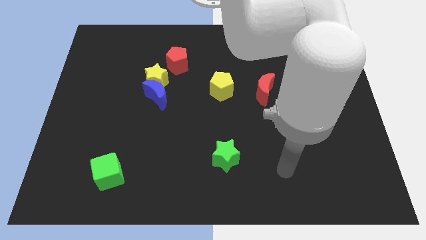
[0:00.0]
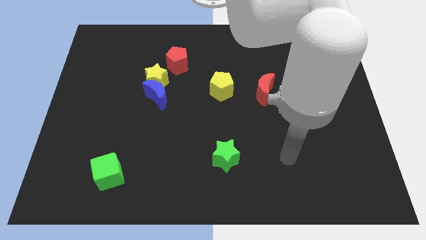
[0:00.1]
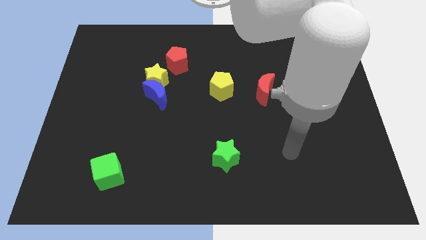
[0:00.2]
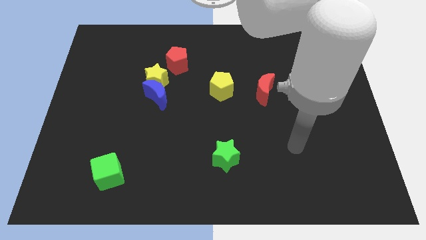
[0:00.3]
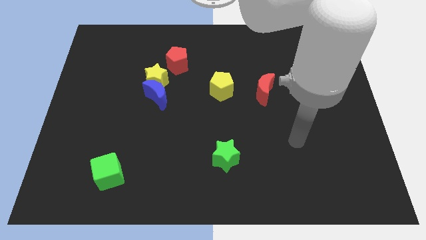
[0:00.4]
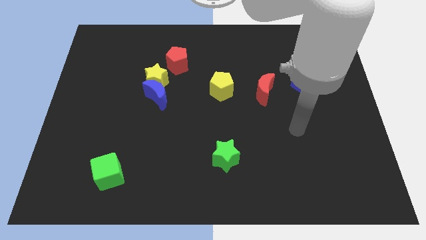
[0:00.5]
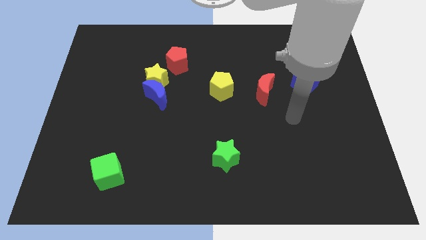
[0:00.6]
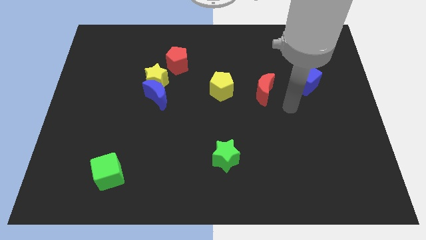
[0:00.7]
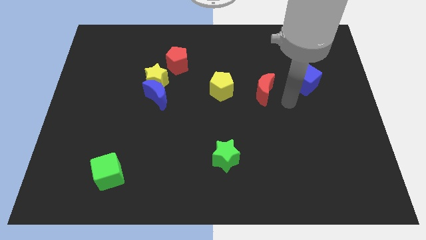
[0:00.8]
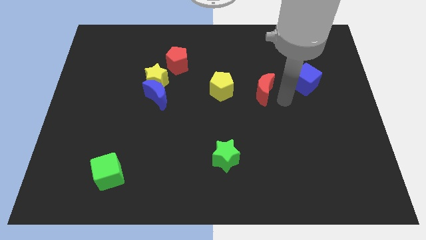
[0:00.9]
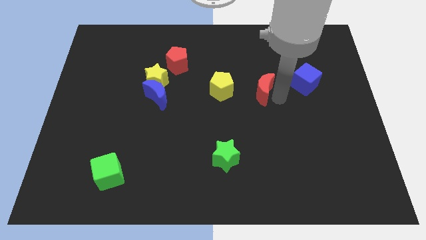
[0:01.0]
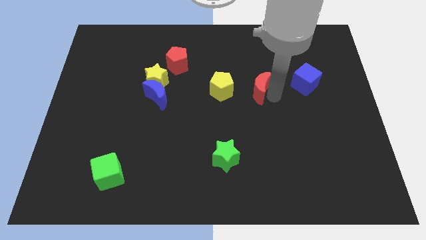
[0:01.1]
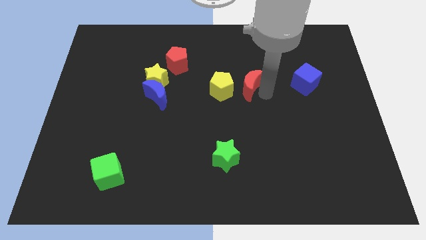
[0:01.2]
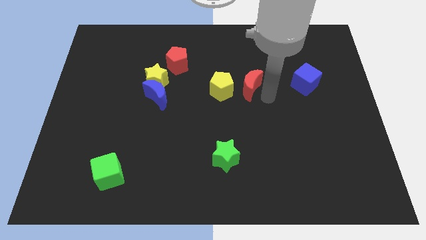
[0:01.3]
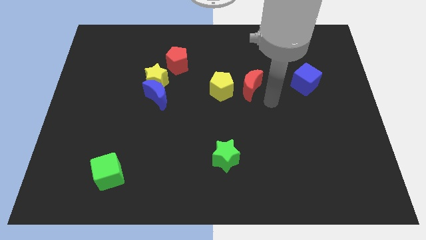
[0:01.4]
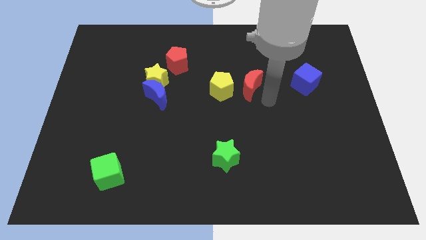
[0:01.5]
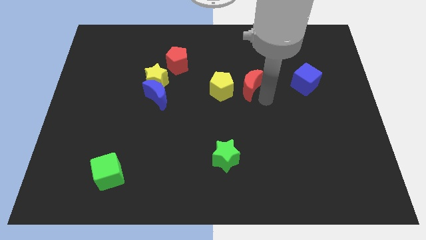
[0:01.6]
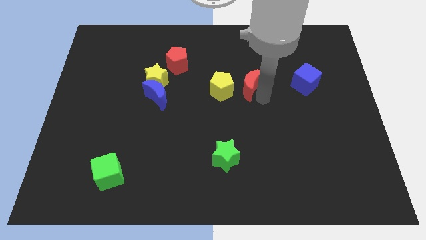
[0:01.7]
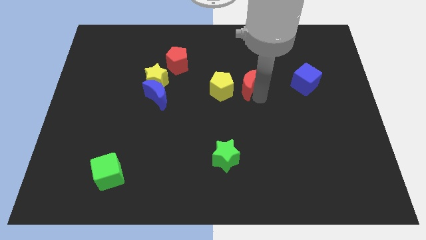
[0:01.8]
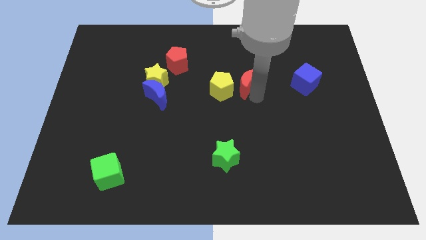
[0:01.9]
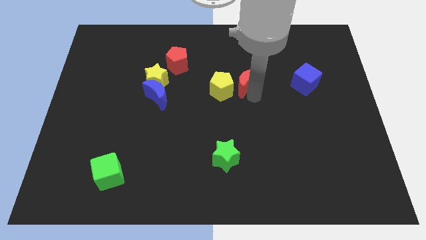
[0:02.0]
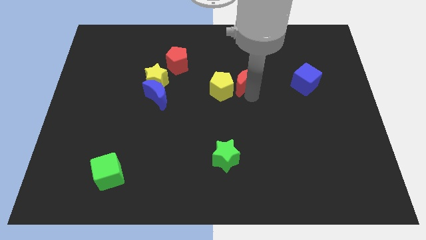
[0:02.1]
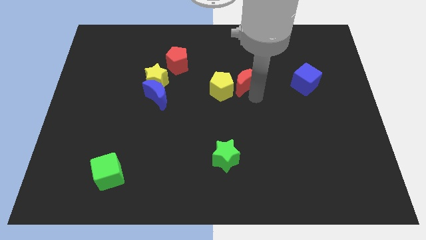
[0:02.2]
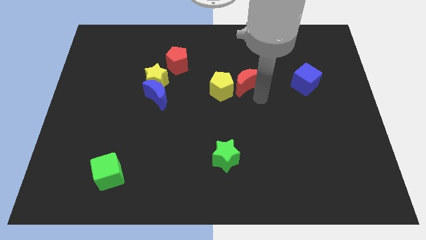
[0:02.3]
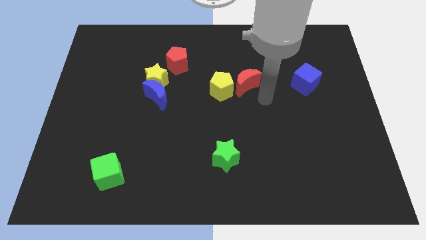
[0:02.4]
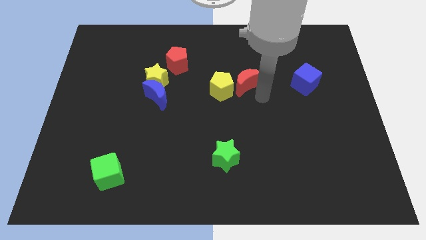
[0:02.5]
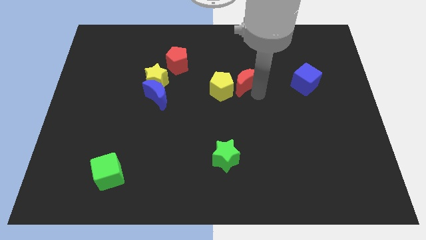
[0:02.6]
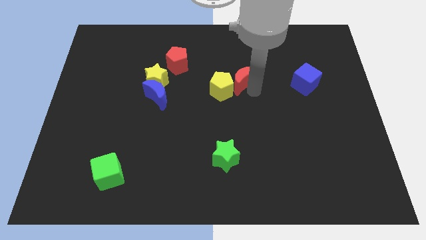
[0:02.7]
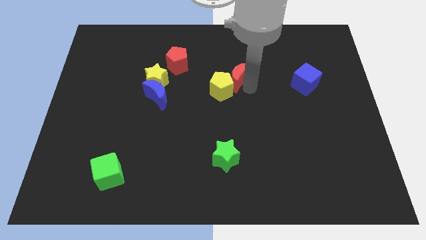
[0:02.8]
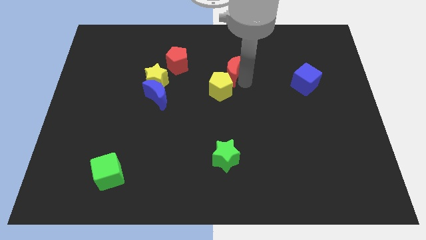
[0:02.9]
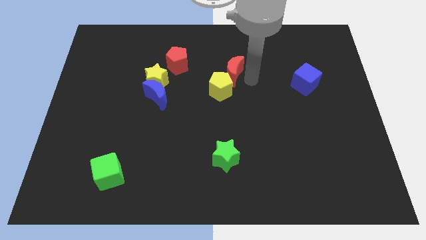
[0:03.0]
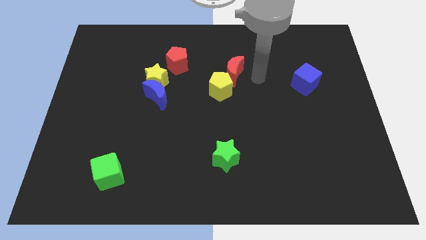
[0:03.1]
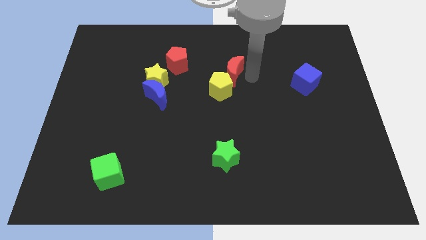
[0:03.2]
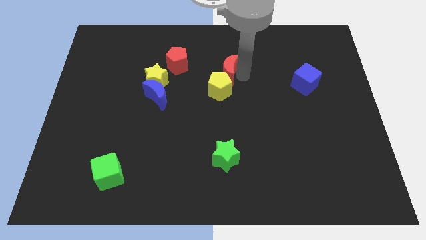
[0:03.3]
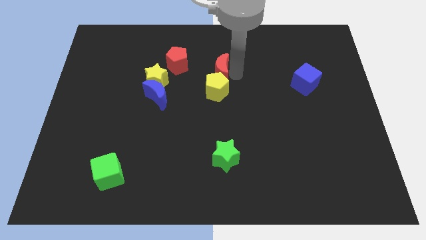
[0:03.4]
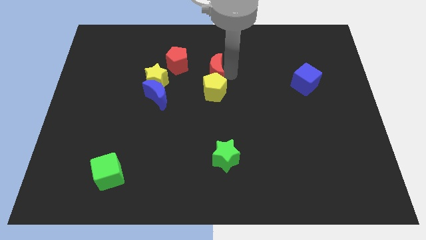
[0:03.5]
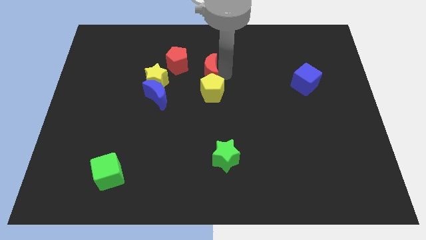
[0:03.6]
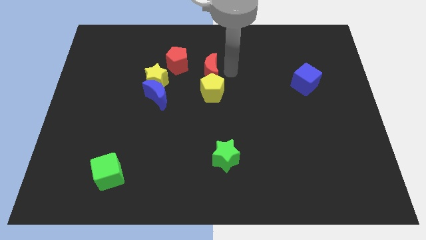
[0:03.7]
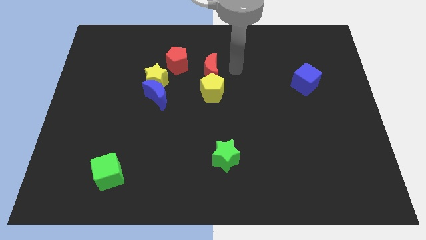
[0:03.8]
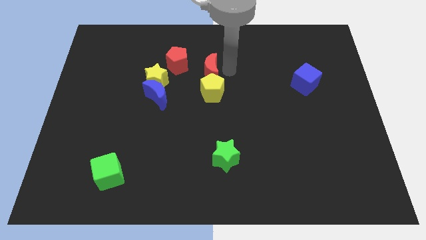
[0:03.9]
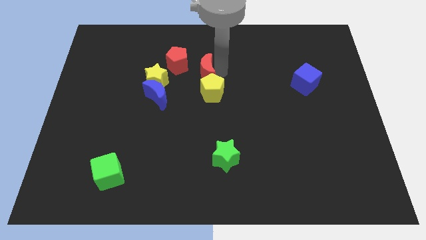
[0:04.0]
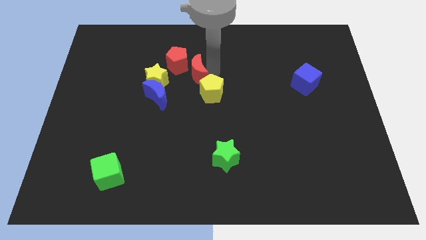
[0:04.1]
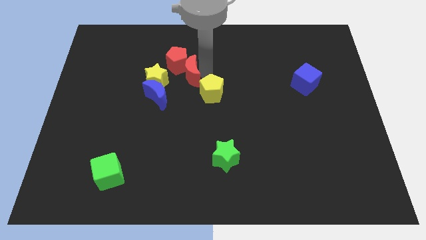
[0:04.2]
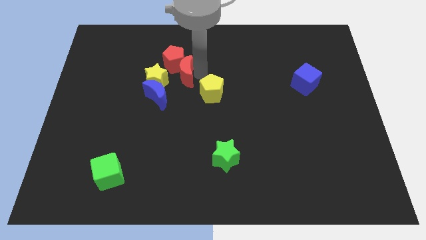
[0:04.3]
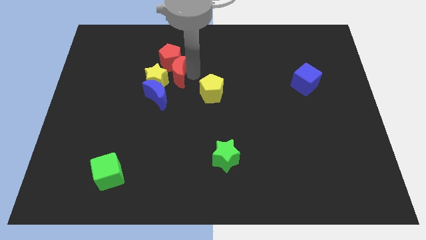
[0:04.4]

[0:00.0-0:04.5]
push the red moon close to the yellow star

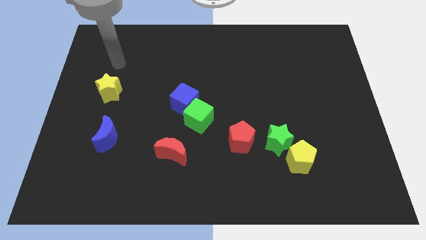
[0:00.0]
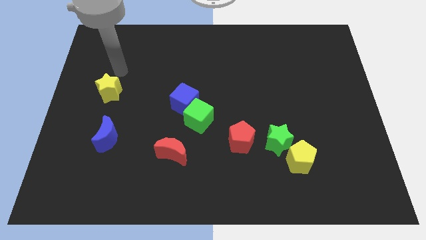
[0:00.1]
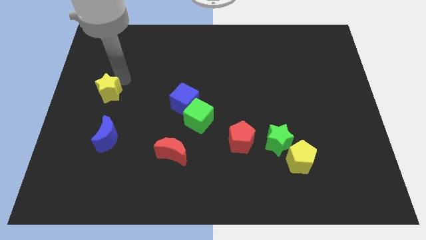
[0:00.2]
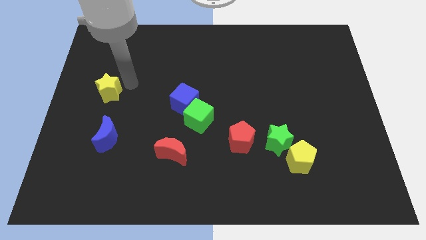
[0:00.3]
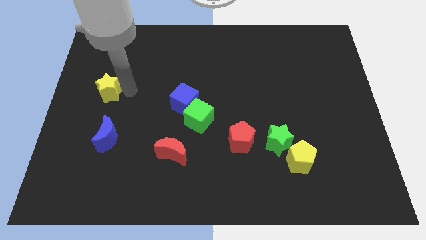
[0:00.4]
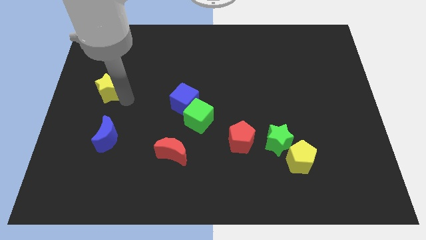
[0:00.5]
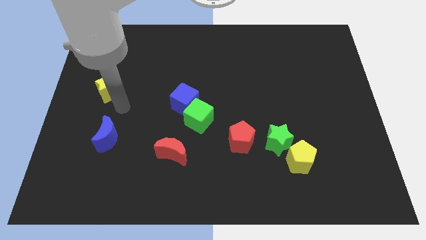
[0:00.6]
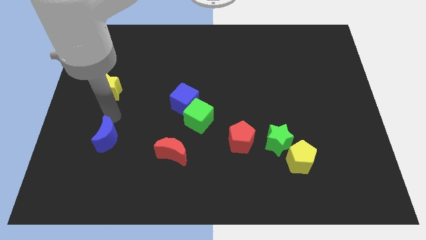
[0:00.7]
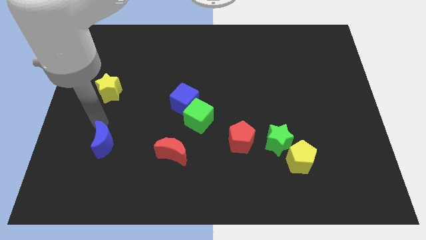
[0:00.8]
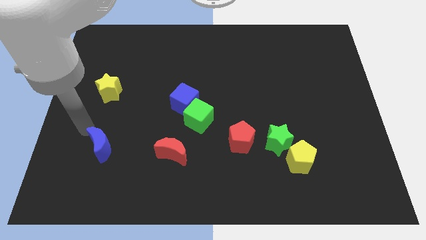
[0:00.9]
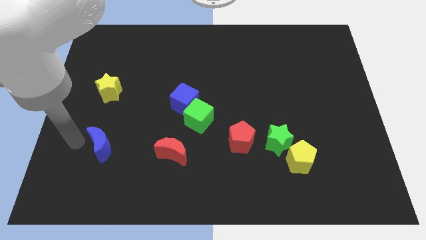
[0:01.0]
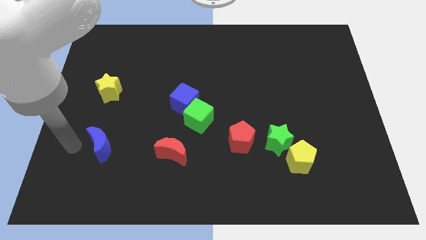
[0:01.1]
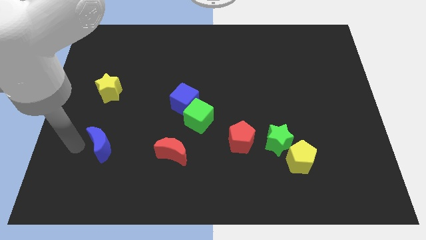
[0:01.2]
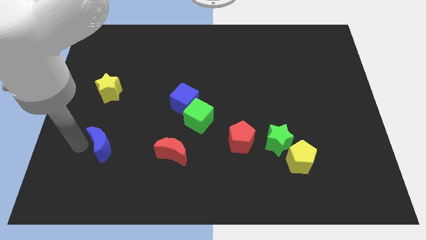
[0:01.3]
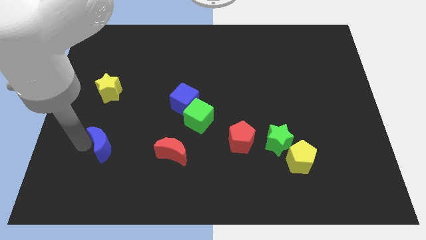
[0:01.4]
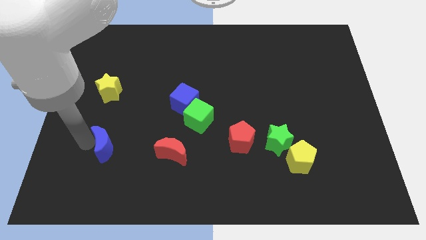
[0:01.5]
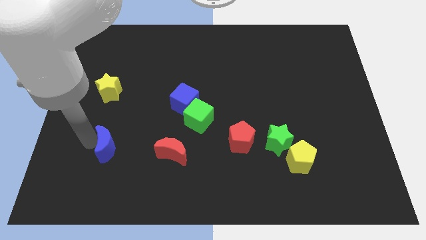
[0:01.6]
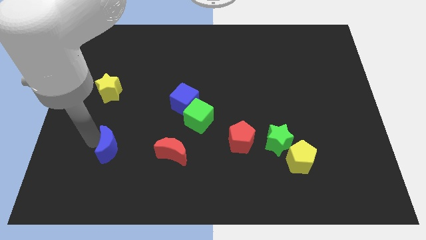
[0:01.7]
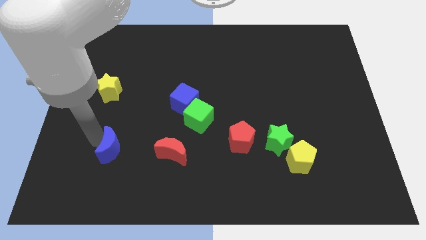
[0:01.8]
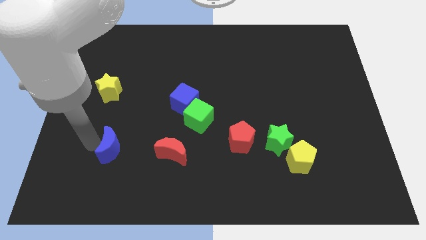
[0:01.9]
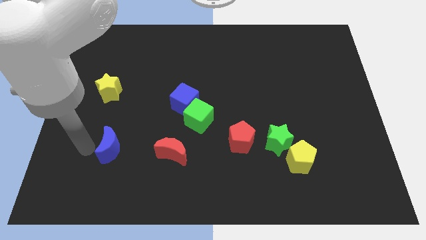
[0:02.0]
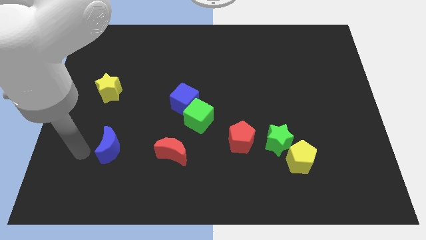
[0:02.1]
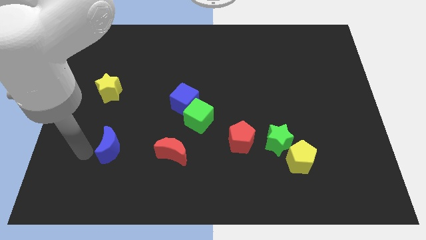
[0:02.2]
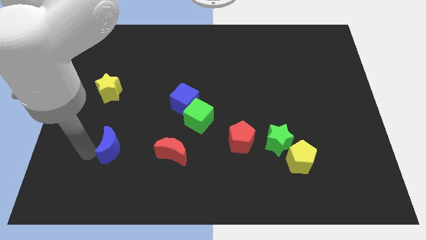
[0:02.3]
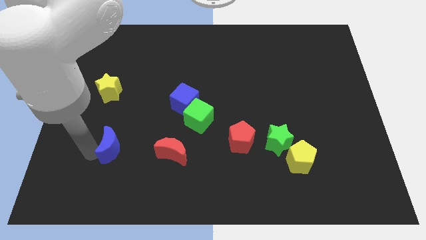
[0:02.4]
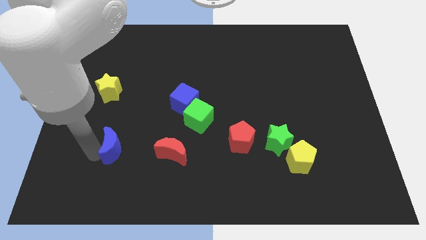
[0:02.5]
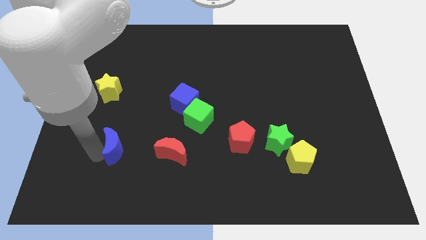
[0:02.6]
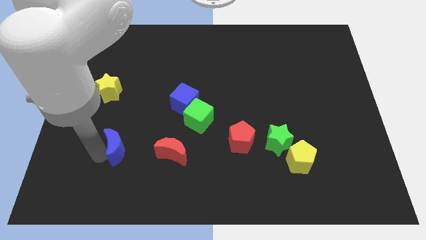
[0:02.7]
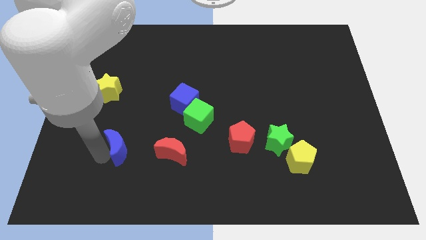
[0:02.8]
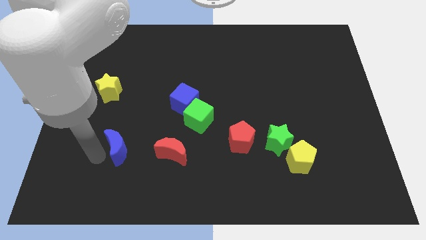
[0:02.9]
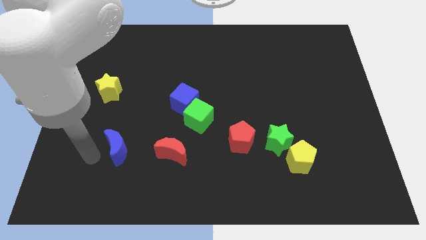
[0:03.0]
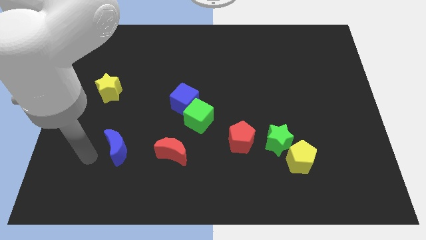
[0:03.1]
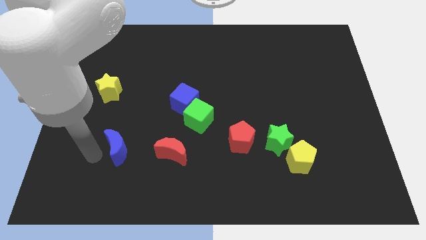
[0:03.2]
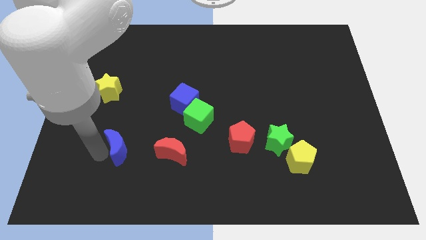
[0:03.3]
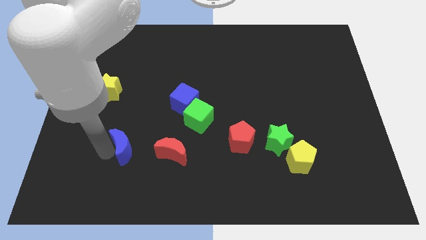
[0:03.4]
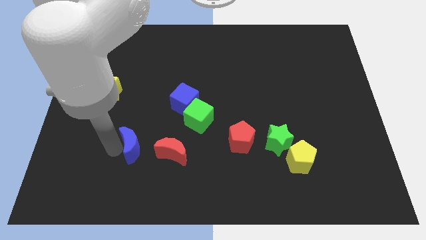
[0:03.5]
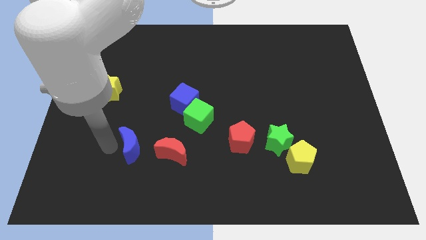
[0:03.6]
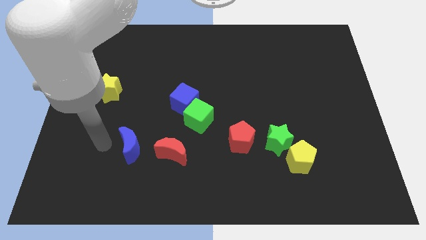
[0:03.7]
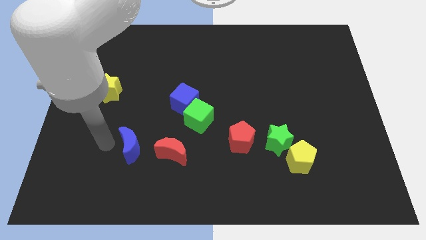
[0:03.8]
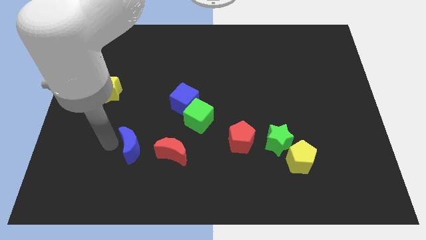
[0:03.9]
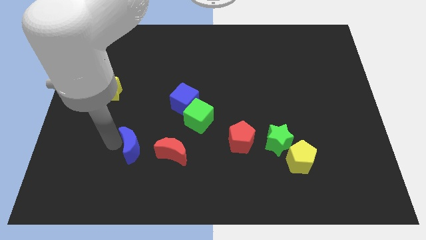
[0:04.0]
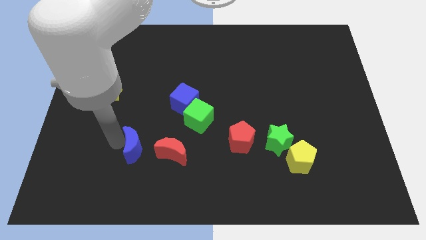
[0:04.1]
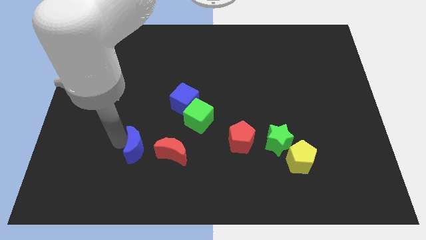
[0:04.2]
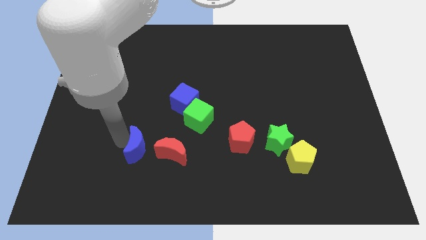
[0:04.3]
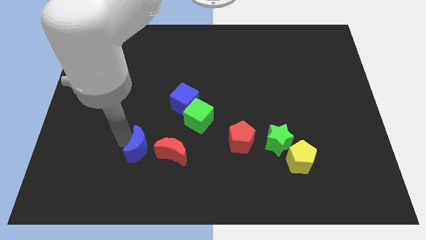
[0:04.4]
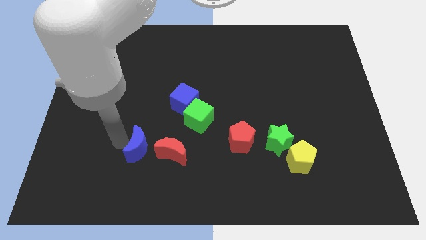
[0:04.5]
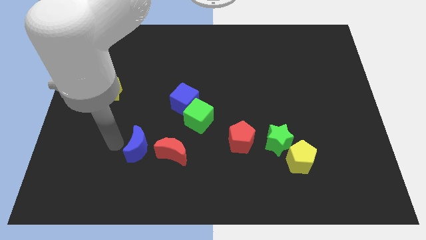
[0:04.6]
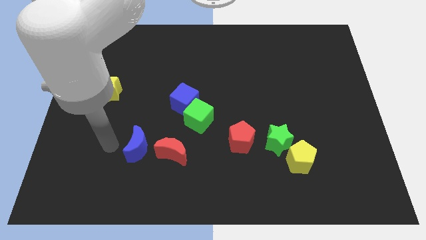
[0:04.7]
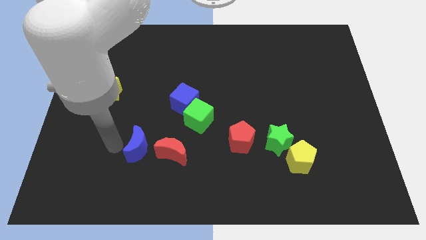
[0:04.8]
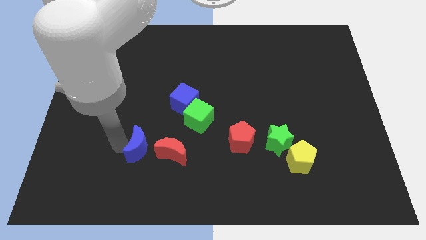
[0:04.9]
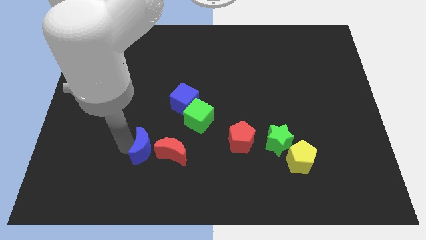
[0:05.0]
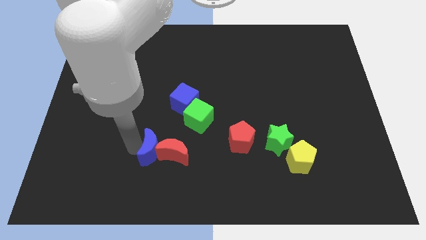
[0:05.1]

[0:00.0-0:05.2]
slide the blue moon to the red moon
